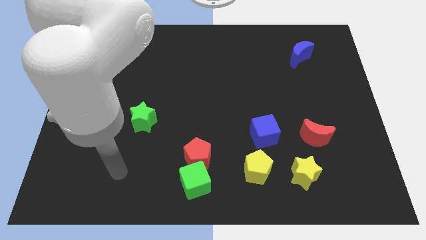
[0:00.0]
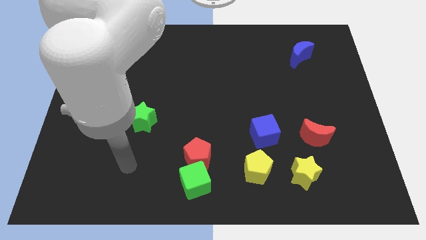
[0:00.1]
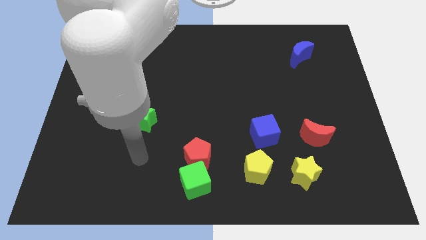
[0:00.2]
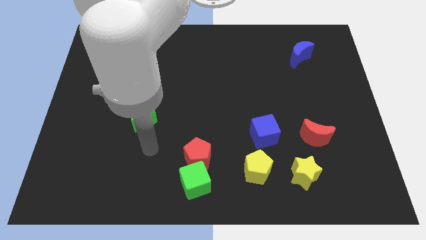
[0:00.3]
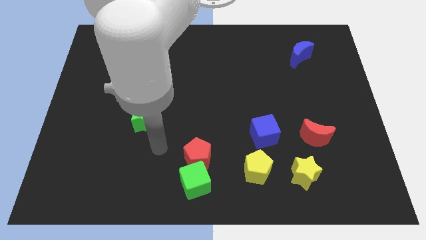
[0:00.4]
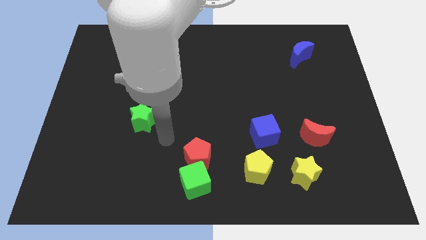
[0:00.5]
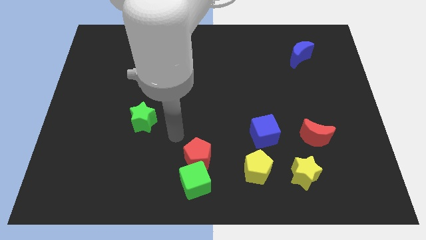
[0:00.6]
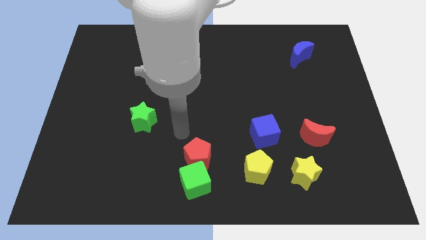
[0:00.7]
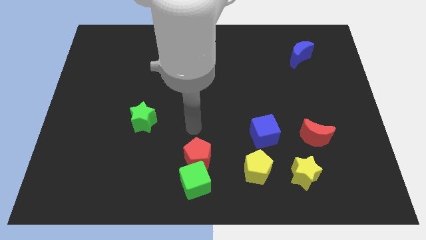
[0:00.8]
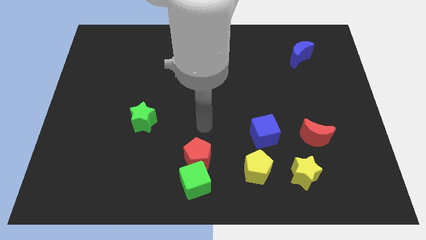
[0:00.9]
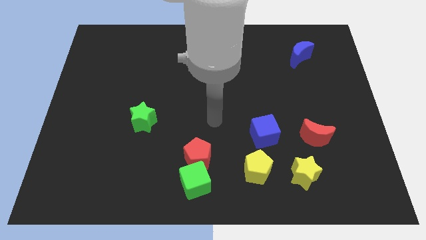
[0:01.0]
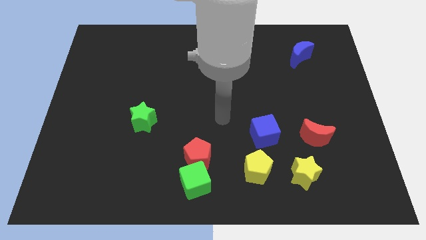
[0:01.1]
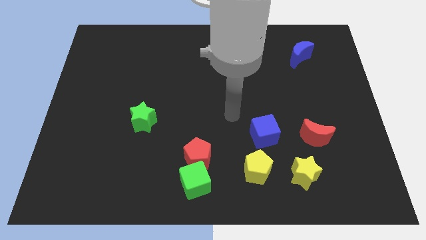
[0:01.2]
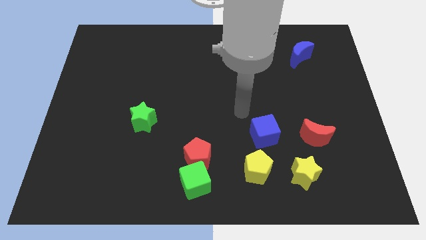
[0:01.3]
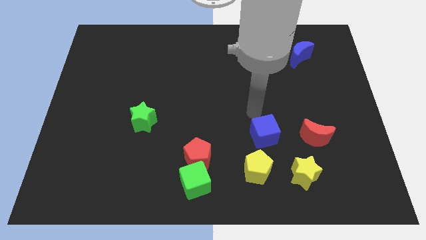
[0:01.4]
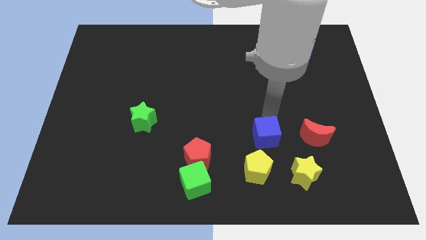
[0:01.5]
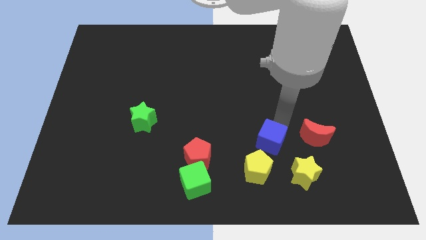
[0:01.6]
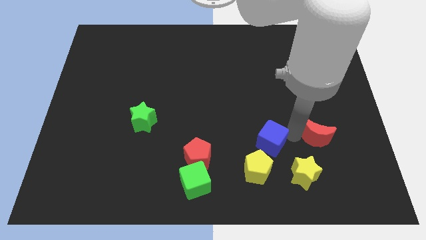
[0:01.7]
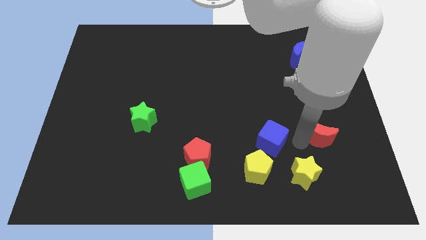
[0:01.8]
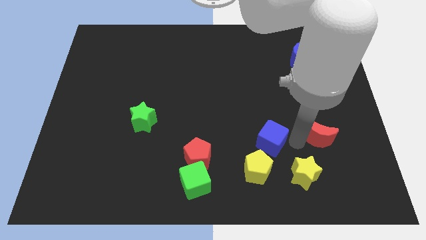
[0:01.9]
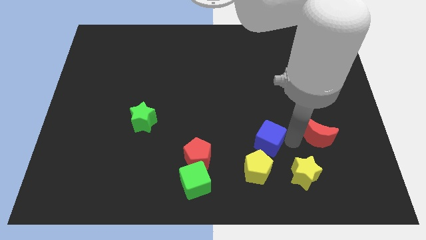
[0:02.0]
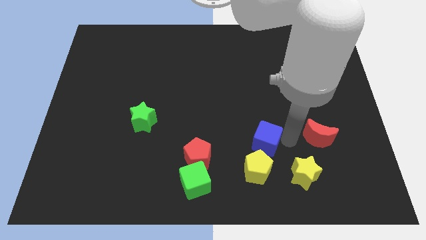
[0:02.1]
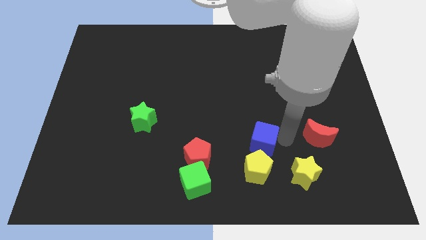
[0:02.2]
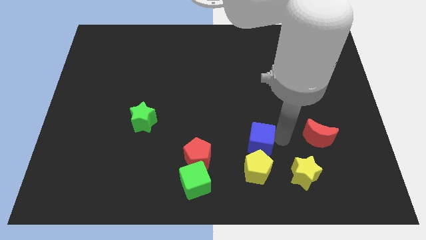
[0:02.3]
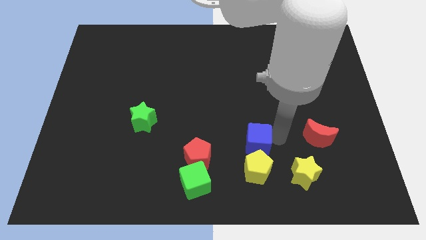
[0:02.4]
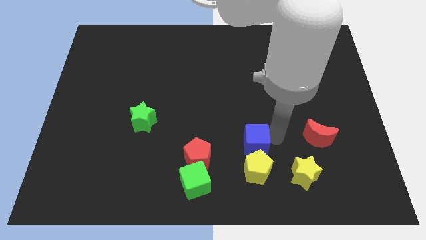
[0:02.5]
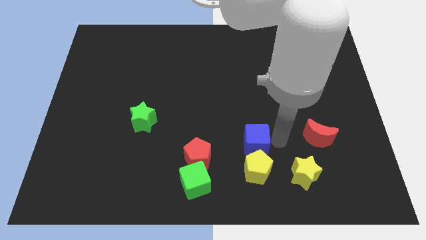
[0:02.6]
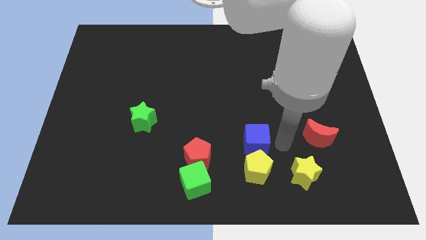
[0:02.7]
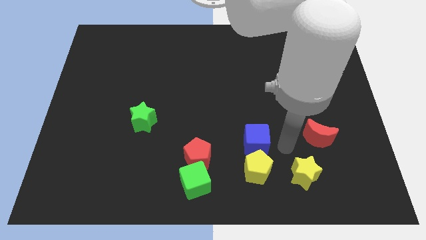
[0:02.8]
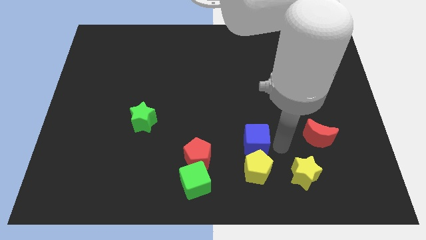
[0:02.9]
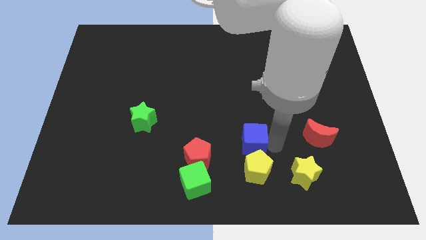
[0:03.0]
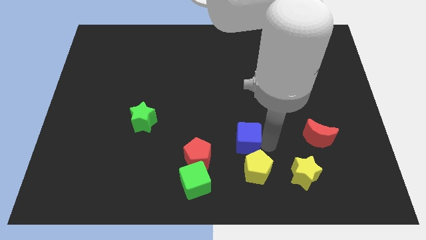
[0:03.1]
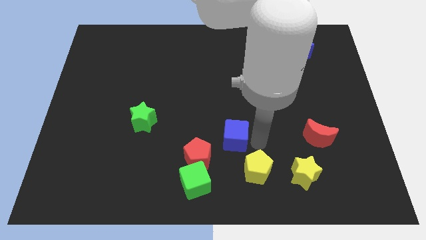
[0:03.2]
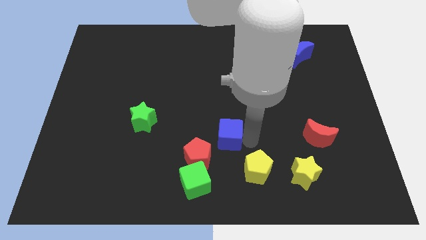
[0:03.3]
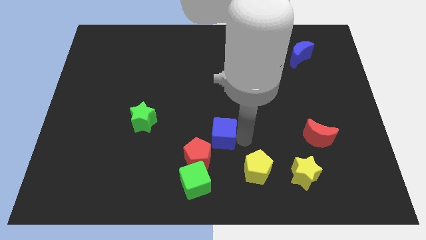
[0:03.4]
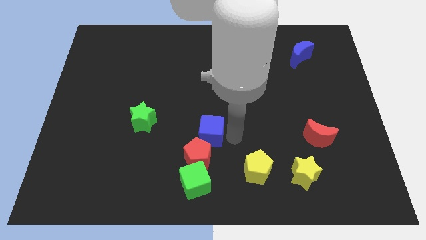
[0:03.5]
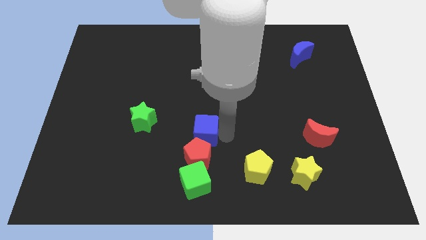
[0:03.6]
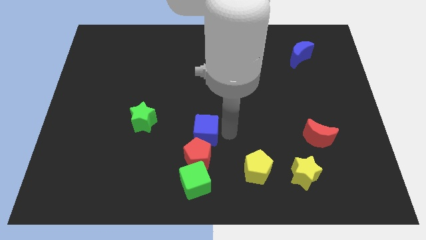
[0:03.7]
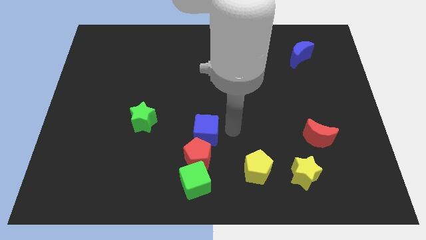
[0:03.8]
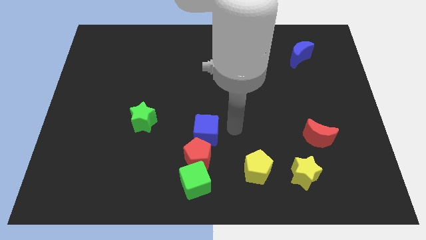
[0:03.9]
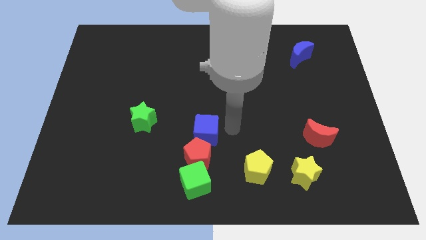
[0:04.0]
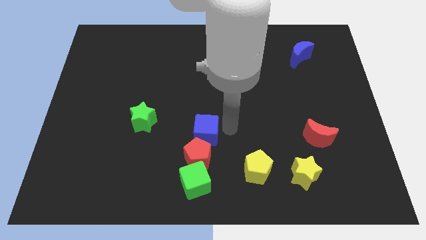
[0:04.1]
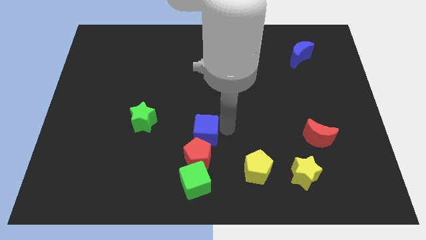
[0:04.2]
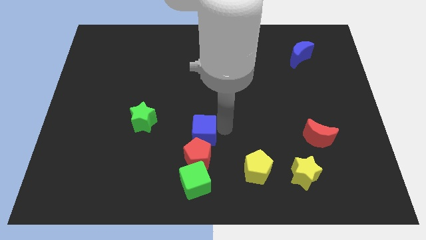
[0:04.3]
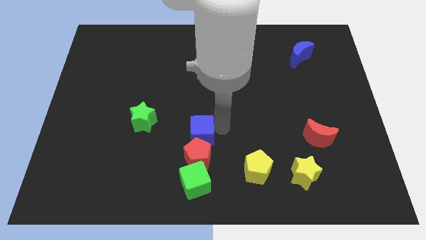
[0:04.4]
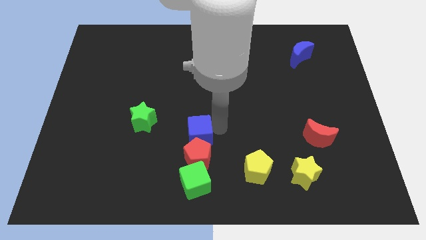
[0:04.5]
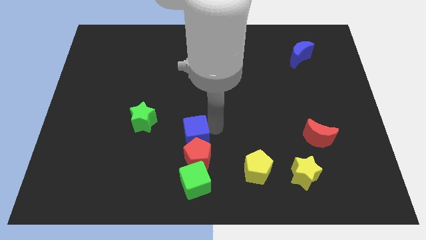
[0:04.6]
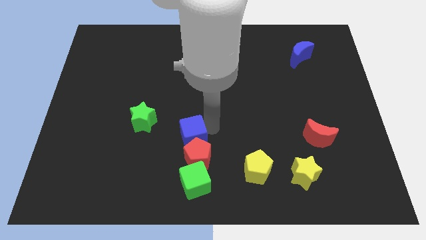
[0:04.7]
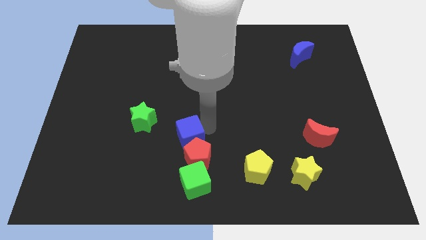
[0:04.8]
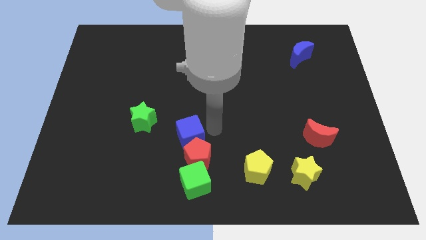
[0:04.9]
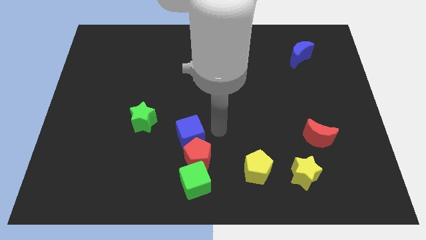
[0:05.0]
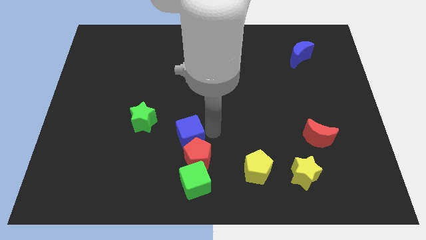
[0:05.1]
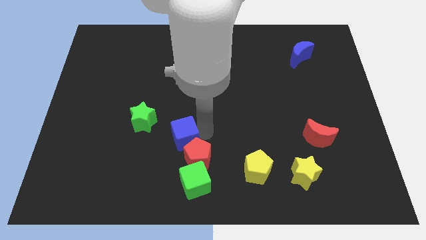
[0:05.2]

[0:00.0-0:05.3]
push the blue cube diagonally down and to the right of the green star

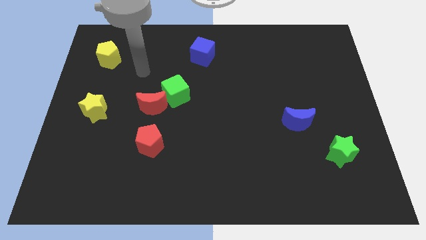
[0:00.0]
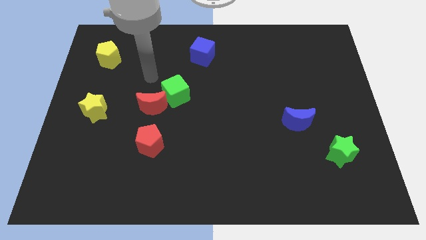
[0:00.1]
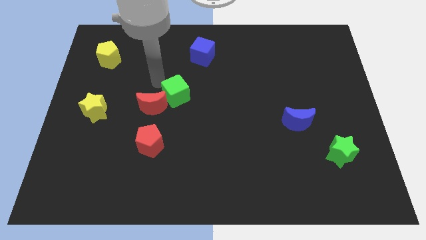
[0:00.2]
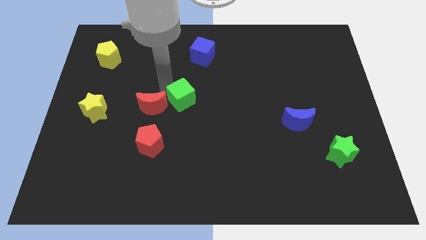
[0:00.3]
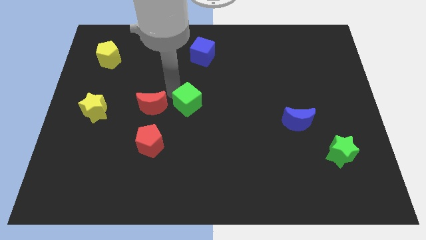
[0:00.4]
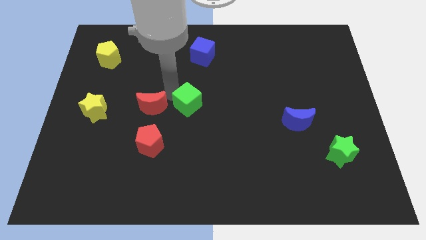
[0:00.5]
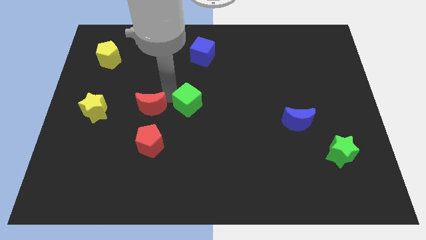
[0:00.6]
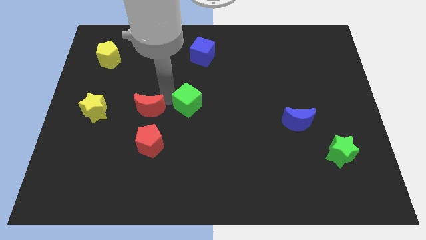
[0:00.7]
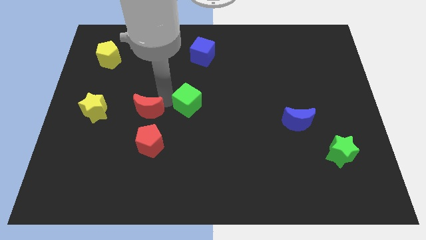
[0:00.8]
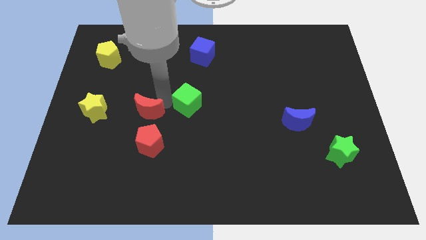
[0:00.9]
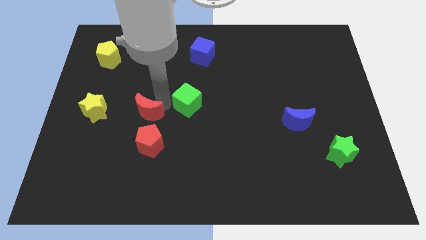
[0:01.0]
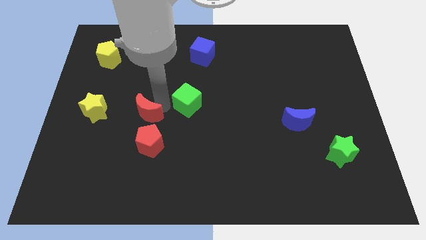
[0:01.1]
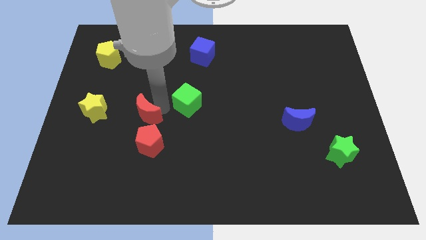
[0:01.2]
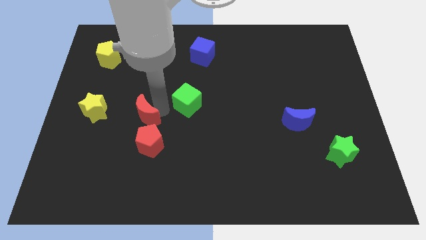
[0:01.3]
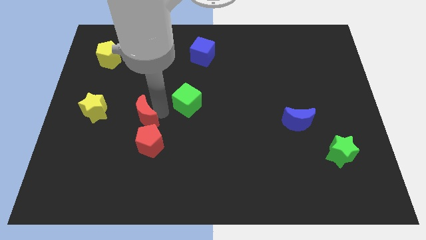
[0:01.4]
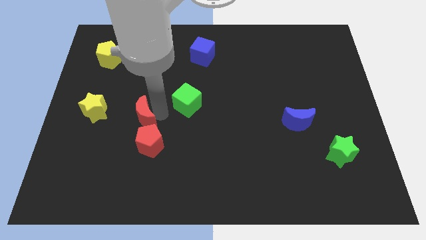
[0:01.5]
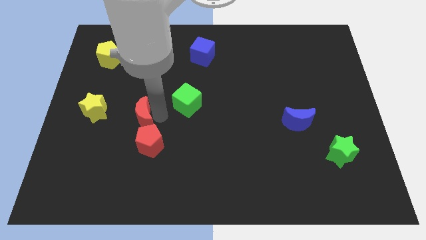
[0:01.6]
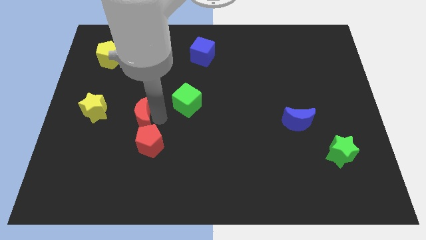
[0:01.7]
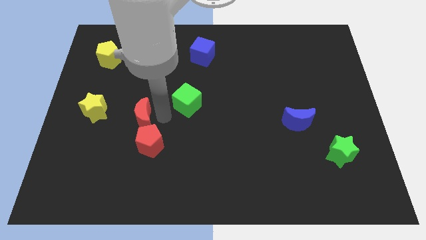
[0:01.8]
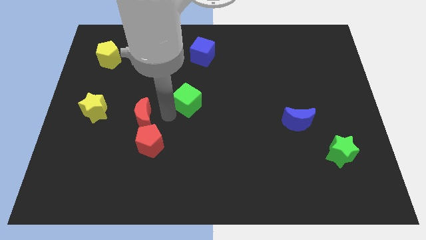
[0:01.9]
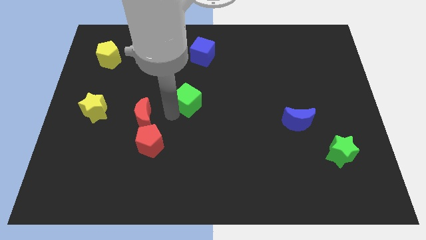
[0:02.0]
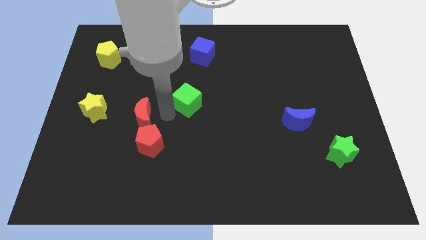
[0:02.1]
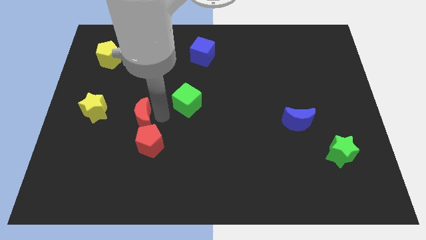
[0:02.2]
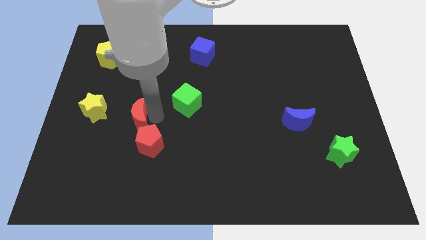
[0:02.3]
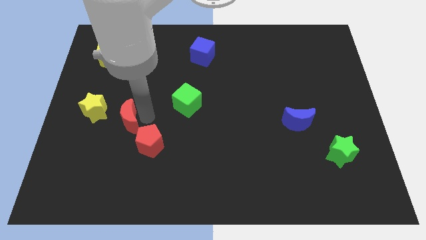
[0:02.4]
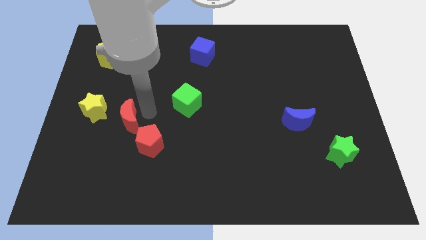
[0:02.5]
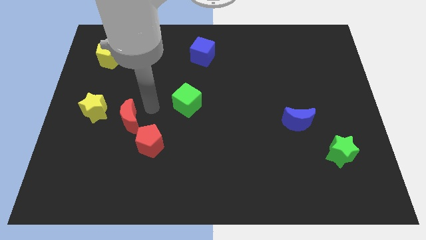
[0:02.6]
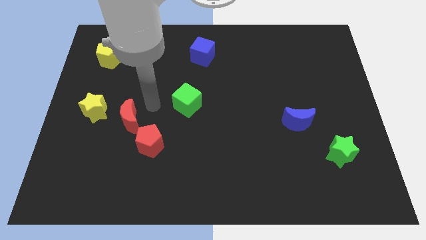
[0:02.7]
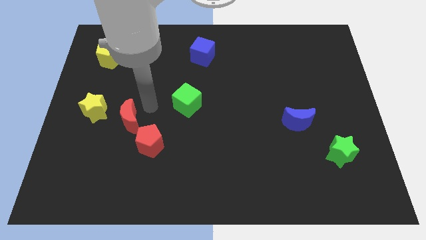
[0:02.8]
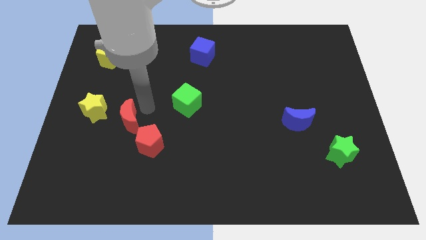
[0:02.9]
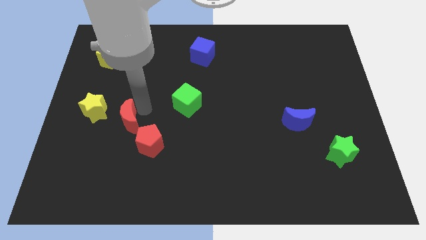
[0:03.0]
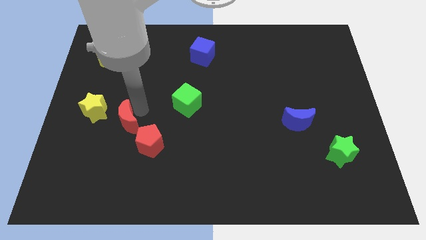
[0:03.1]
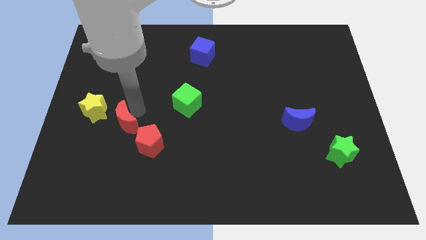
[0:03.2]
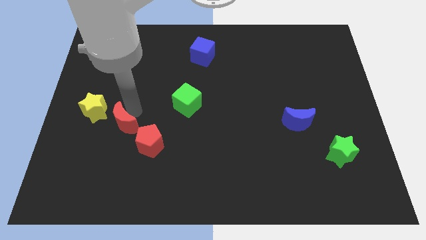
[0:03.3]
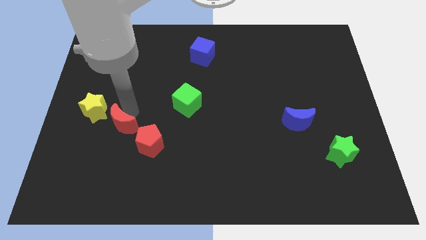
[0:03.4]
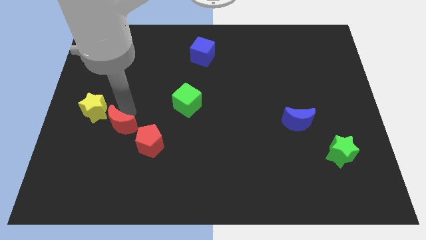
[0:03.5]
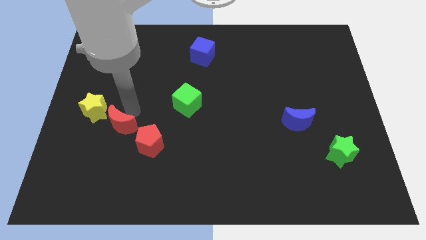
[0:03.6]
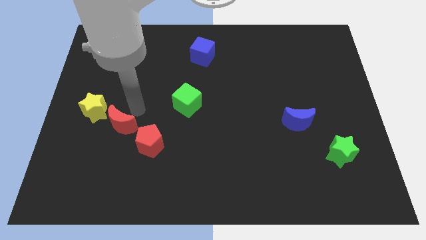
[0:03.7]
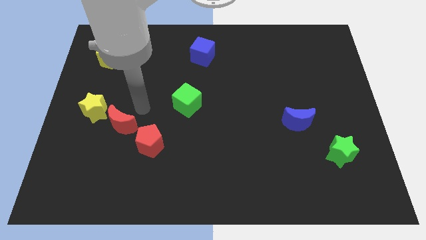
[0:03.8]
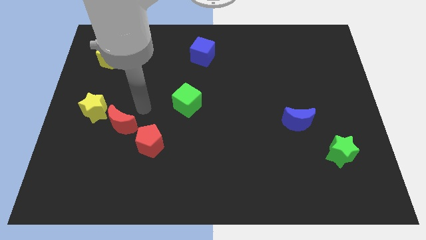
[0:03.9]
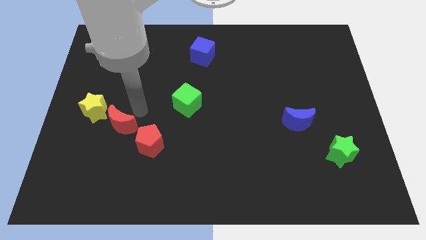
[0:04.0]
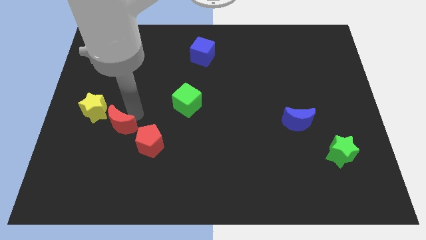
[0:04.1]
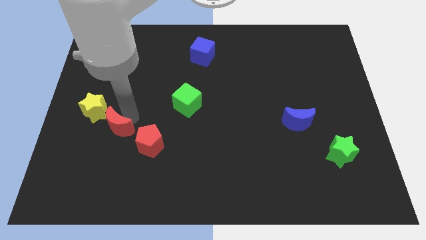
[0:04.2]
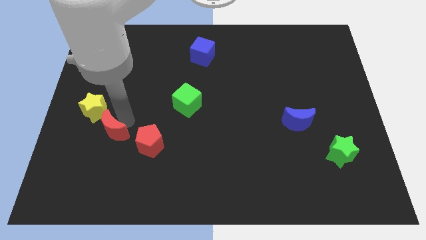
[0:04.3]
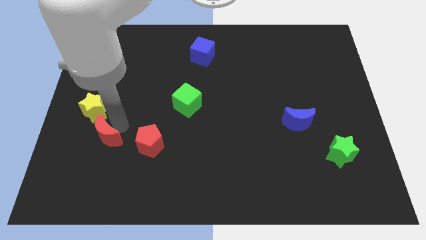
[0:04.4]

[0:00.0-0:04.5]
slide the red moon to the bottom side of the yellow star
